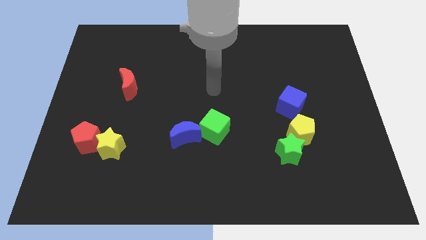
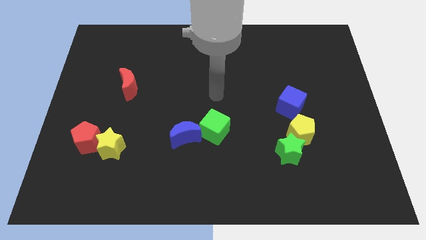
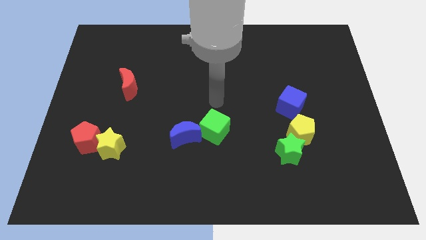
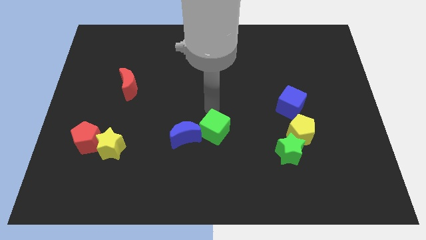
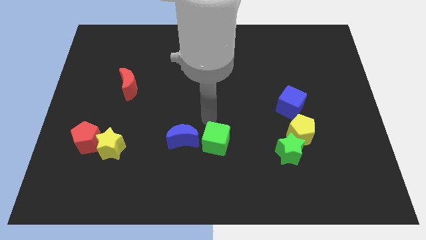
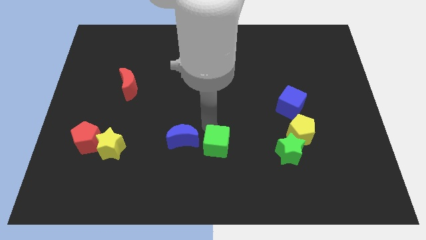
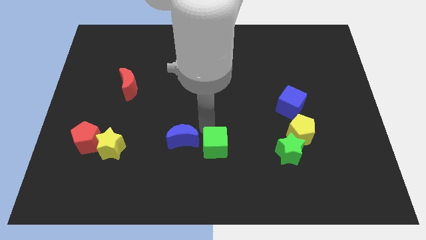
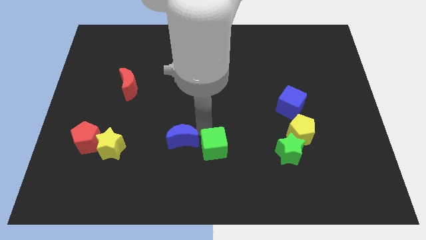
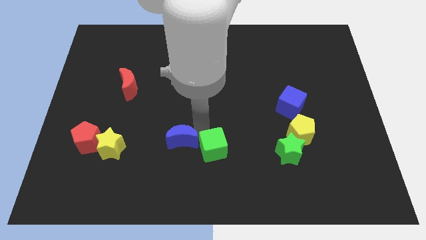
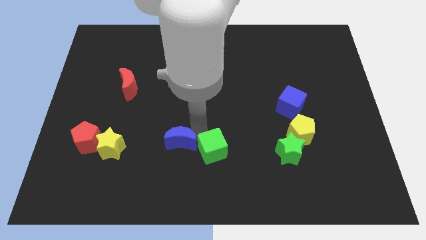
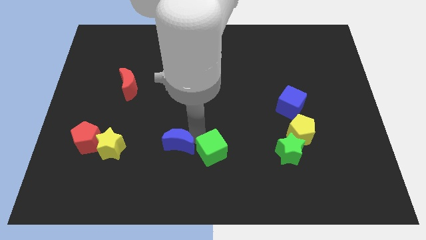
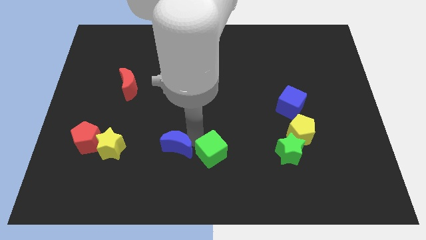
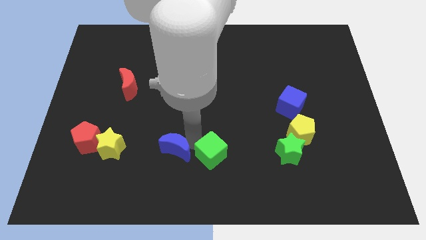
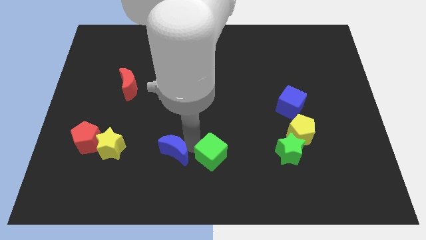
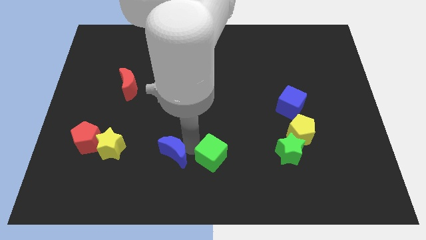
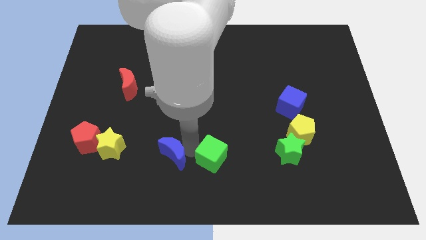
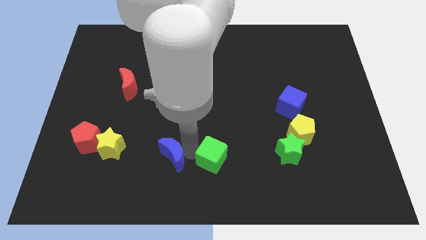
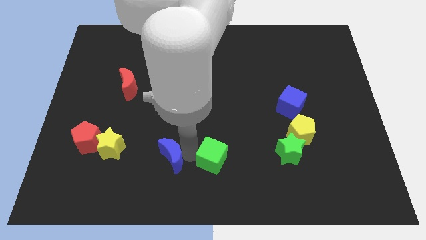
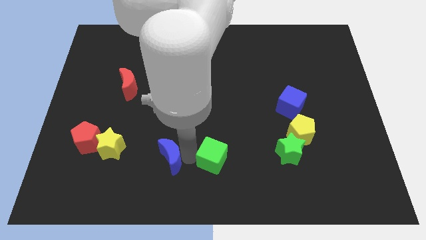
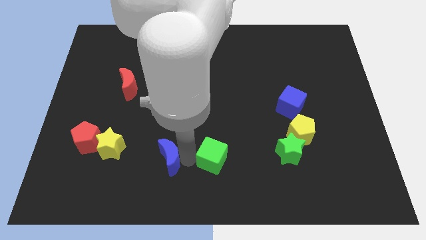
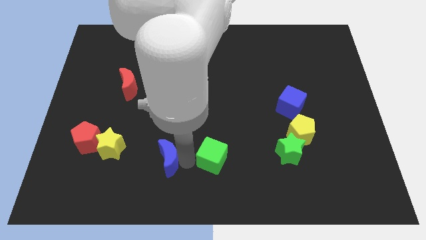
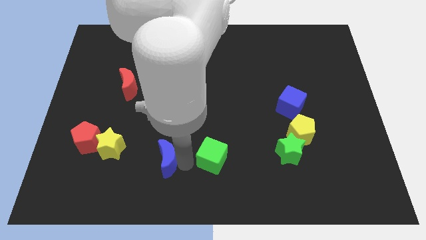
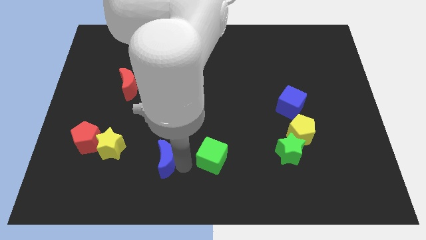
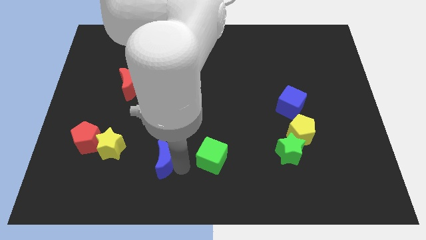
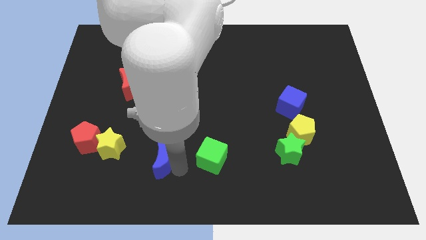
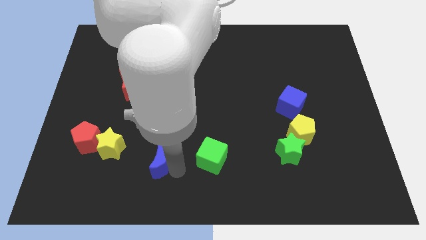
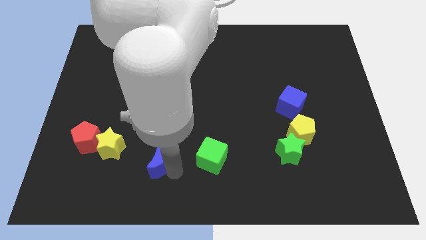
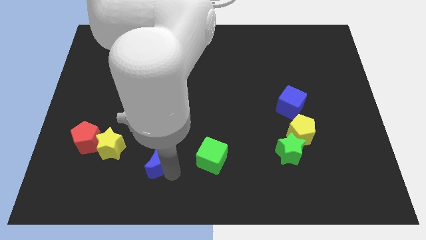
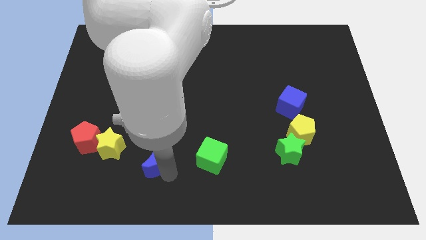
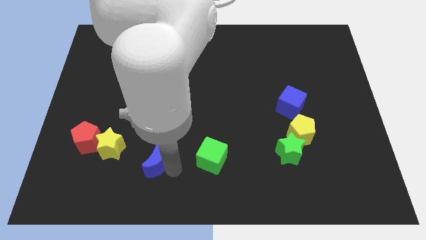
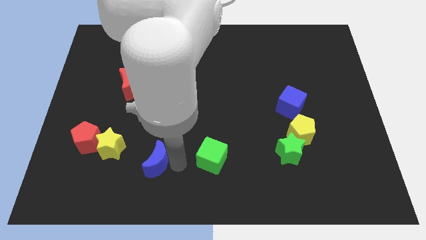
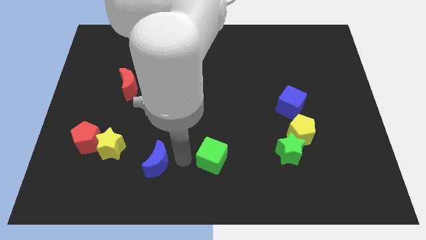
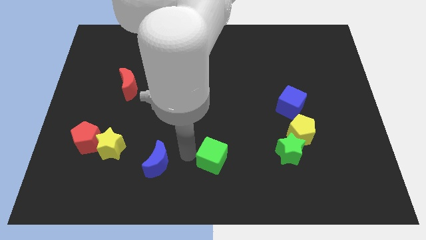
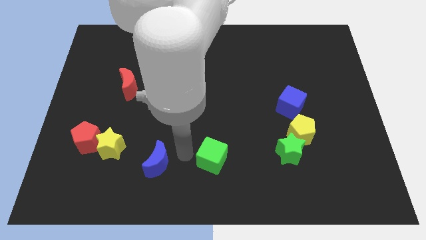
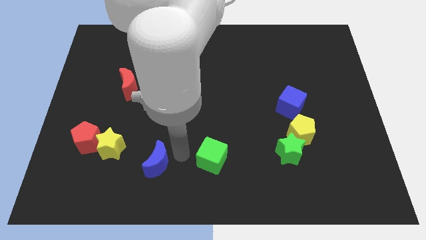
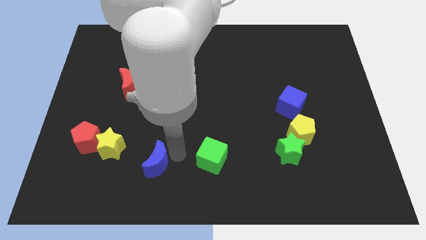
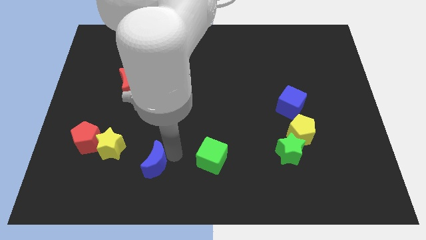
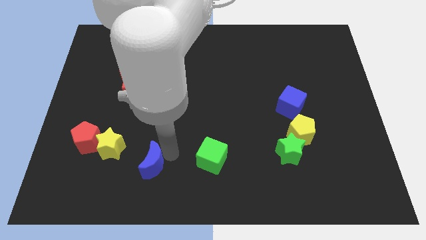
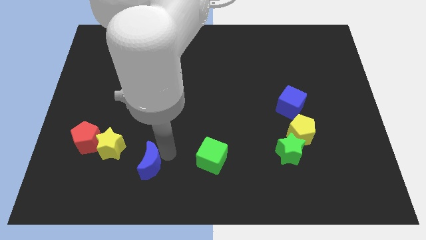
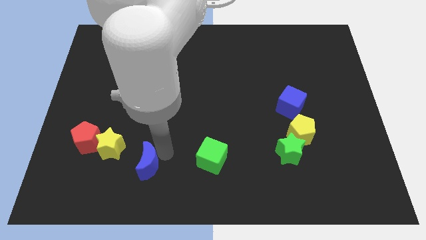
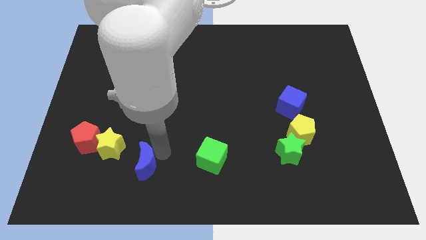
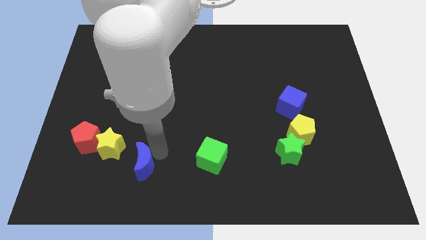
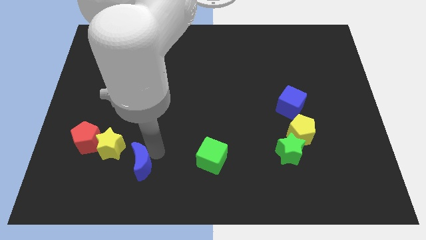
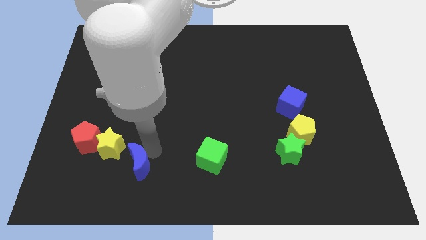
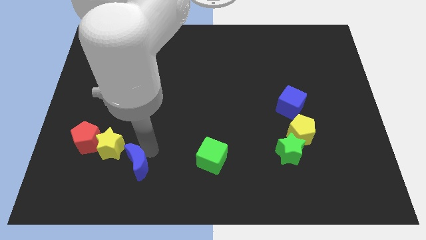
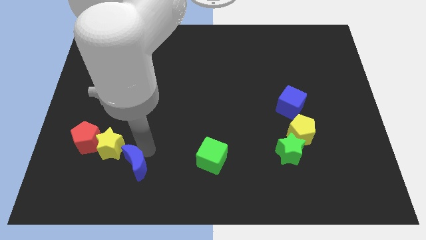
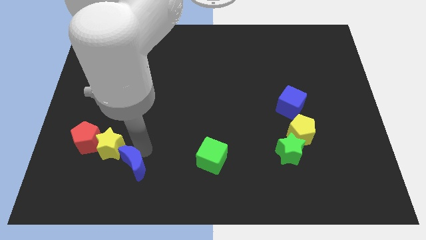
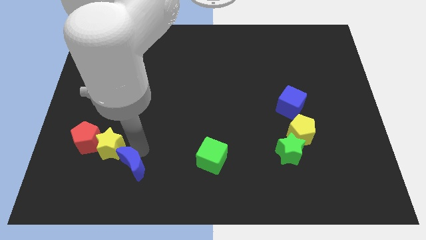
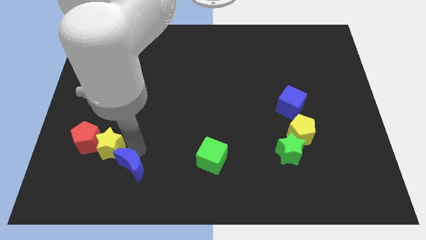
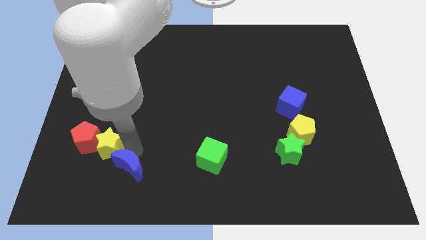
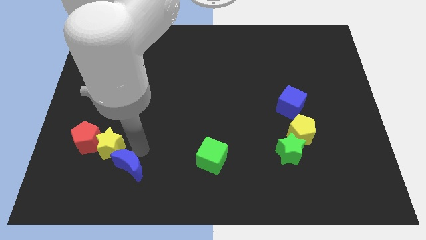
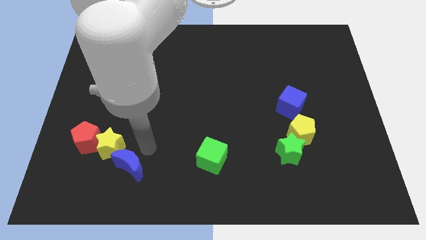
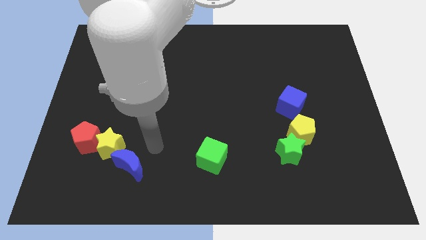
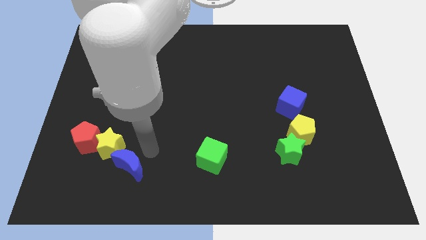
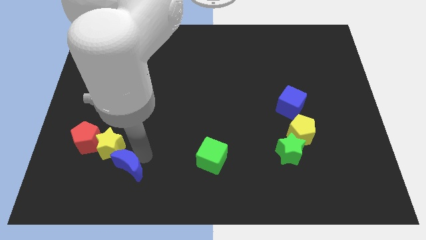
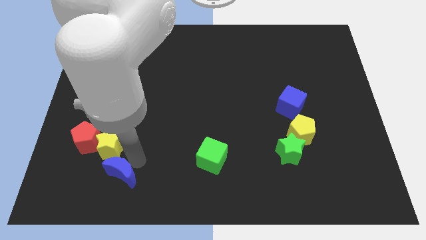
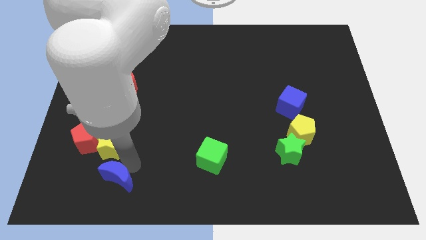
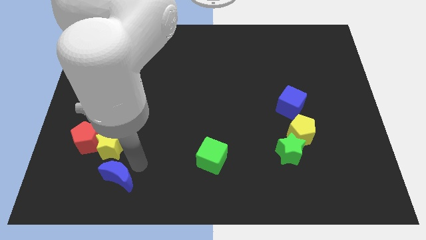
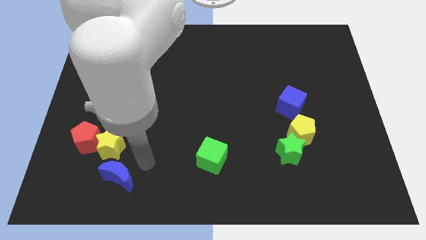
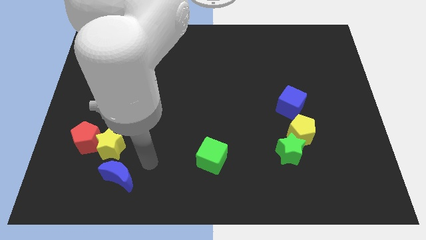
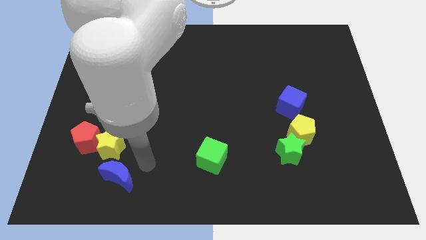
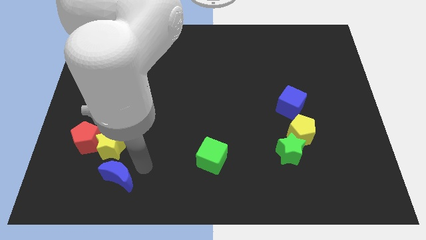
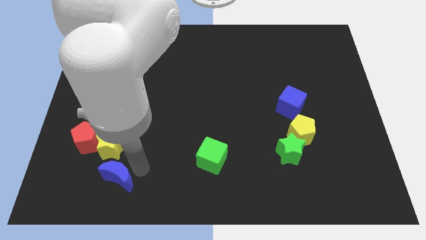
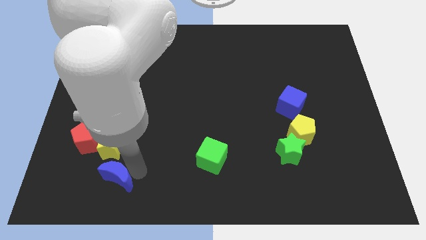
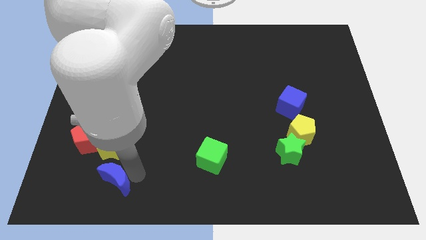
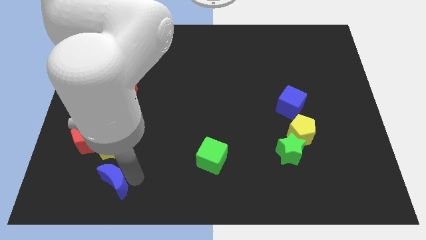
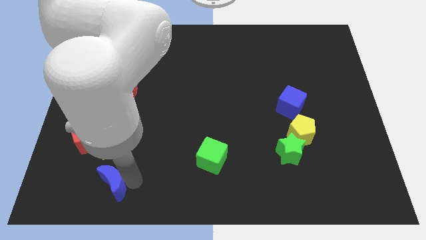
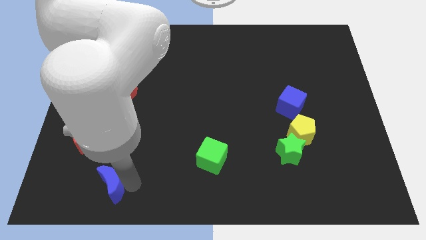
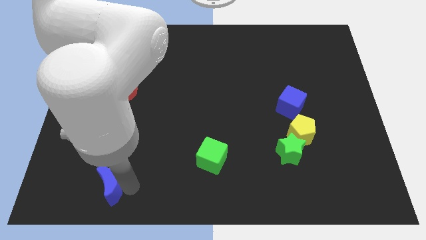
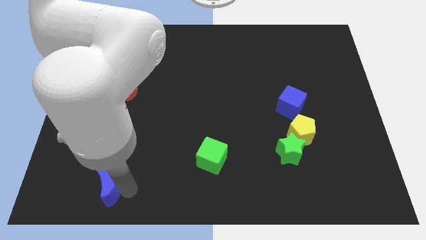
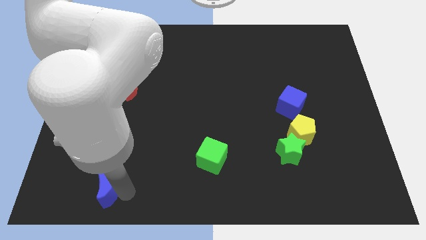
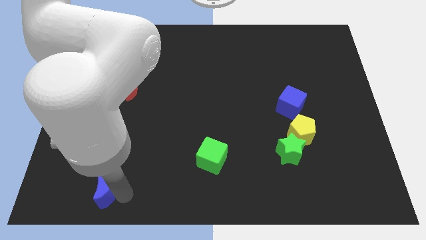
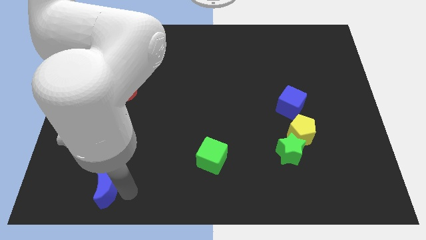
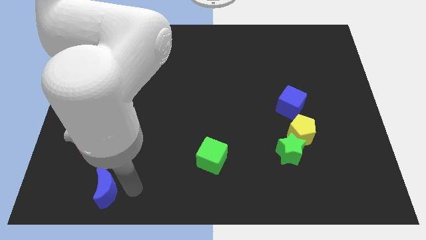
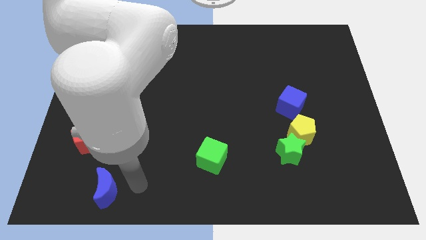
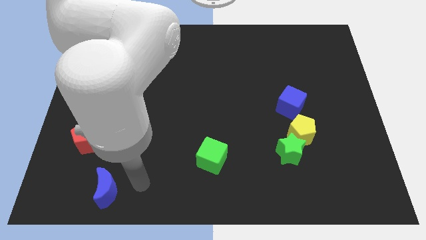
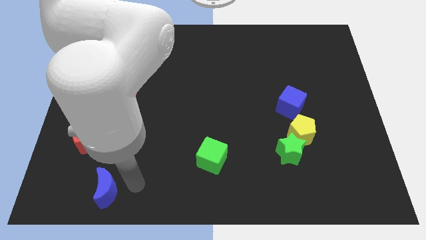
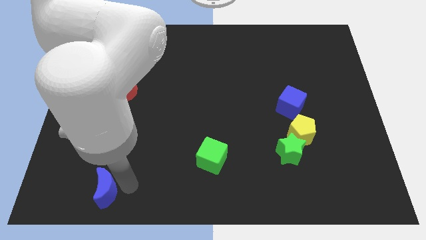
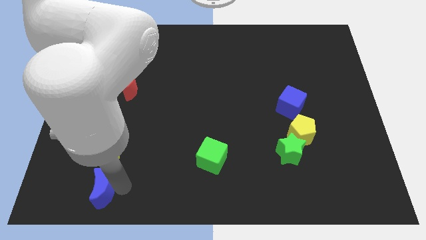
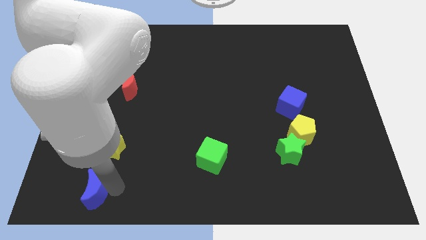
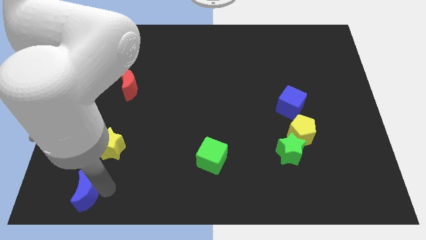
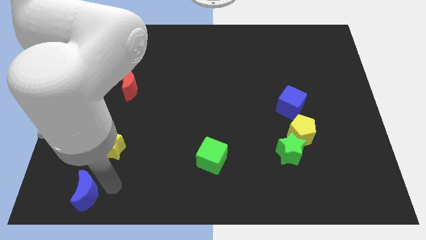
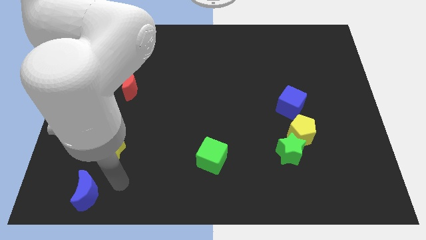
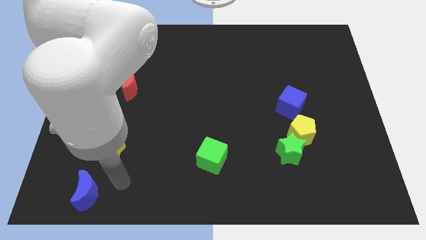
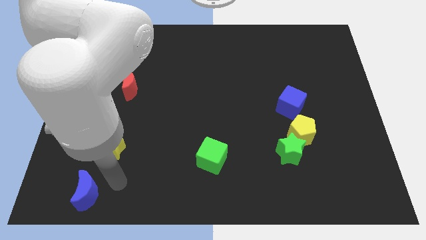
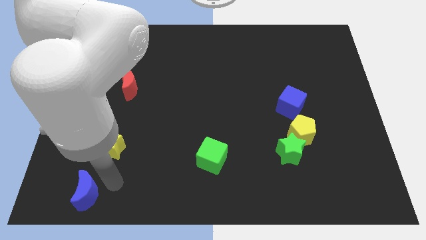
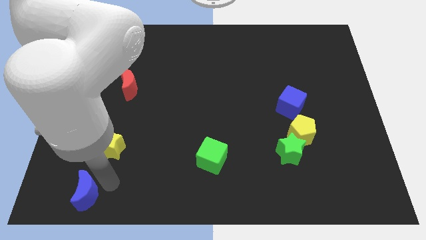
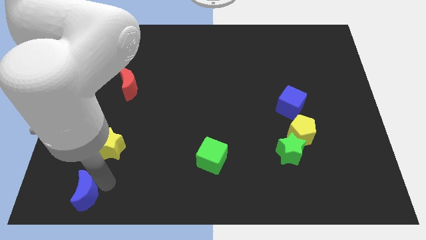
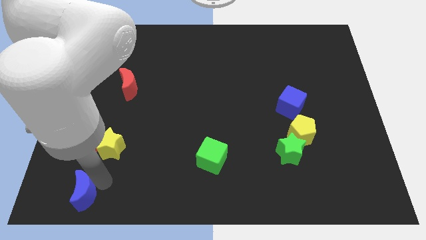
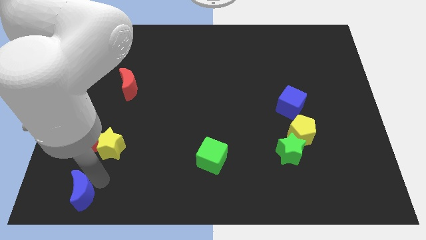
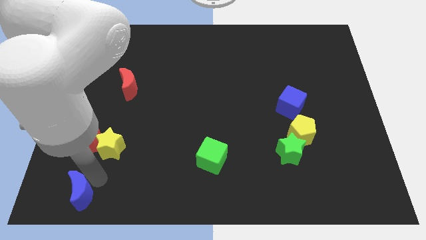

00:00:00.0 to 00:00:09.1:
move the blue moon to the bottom left
